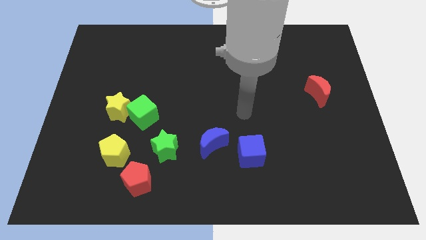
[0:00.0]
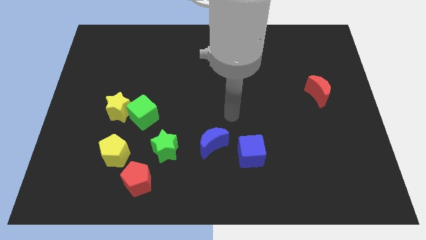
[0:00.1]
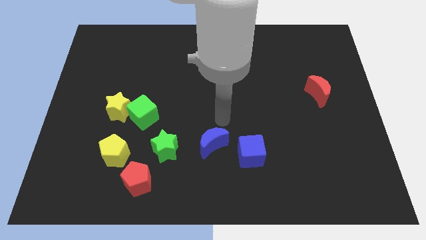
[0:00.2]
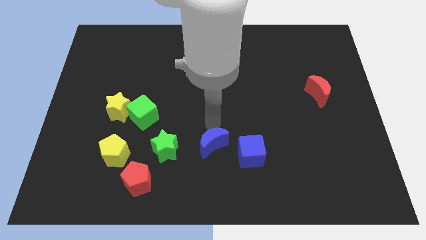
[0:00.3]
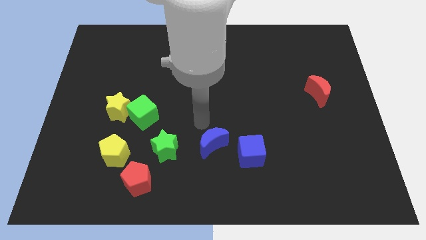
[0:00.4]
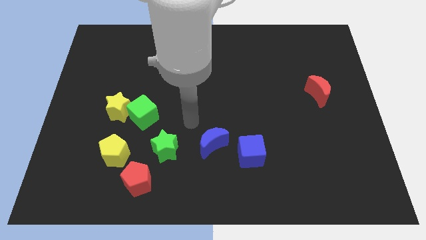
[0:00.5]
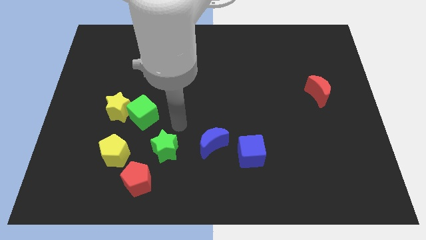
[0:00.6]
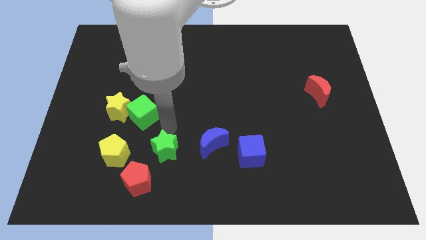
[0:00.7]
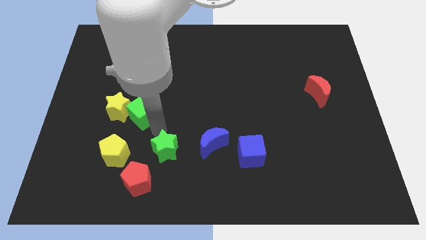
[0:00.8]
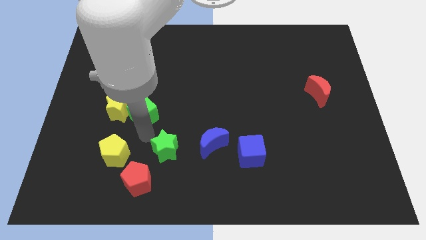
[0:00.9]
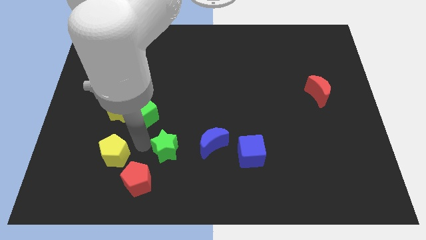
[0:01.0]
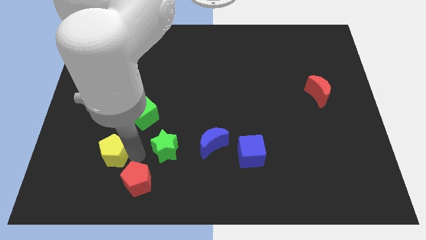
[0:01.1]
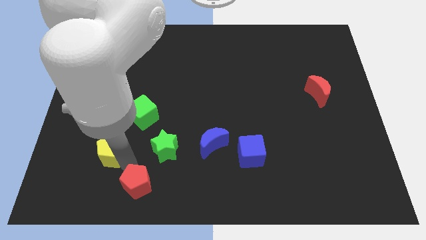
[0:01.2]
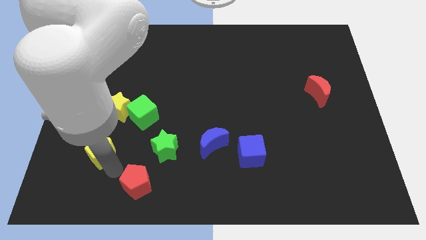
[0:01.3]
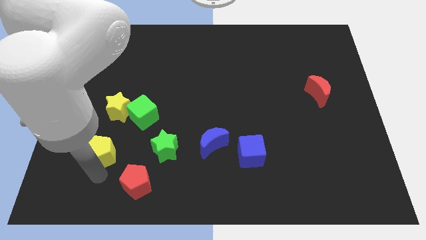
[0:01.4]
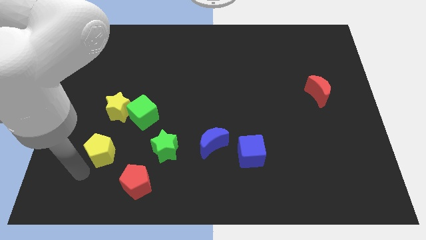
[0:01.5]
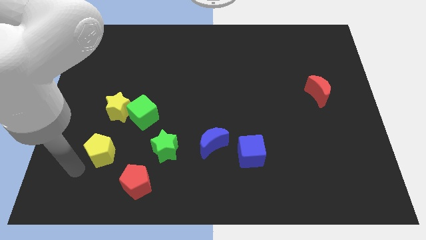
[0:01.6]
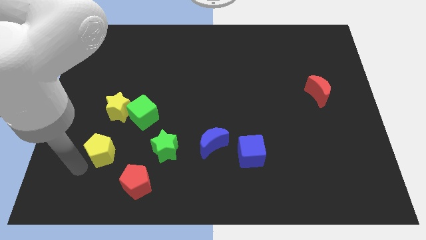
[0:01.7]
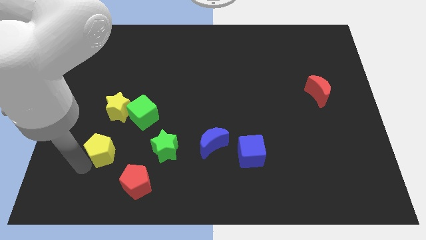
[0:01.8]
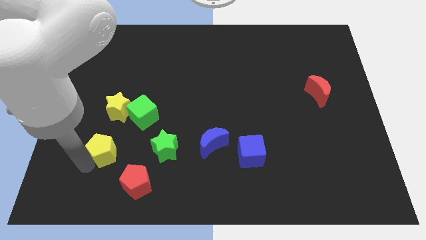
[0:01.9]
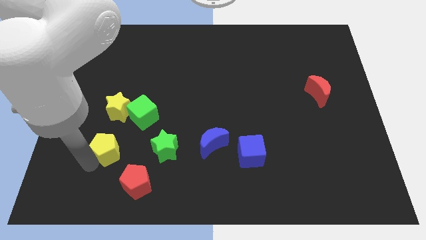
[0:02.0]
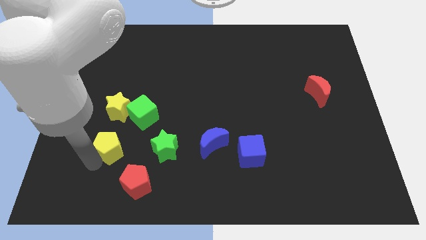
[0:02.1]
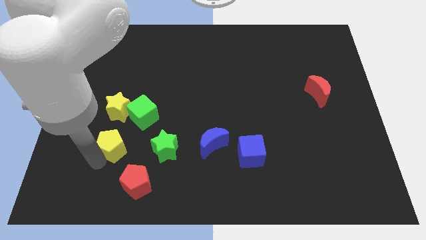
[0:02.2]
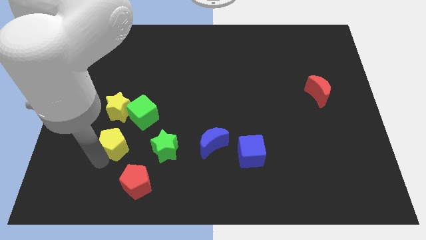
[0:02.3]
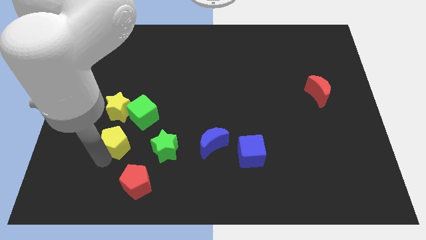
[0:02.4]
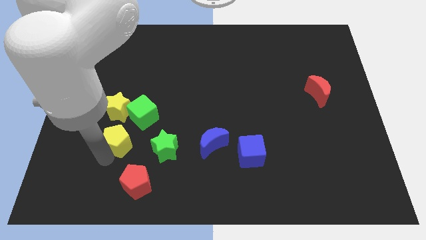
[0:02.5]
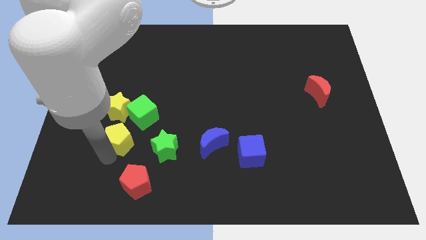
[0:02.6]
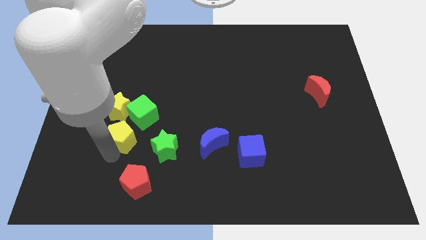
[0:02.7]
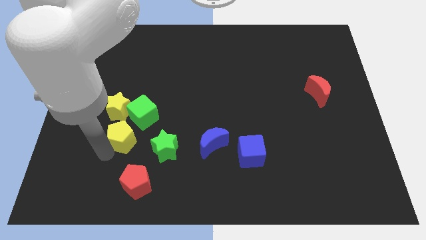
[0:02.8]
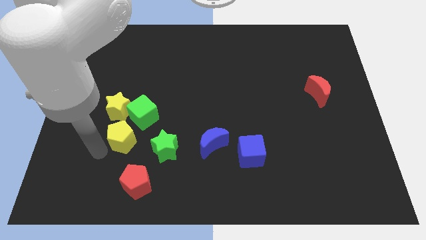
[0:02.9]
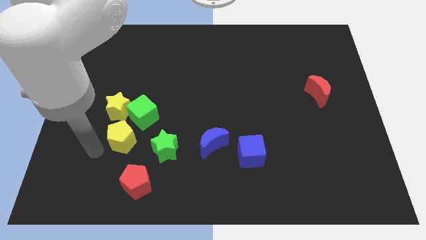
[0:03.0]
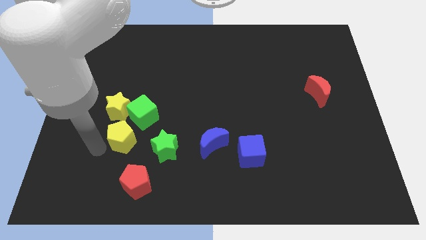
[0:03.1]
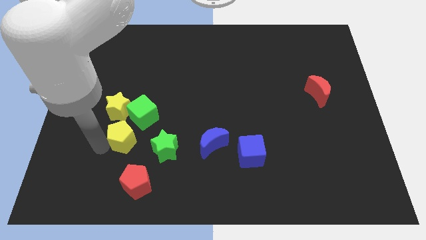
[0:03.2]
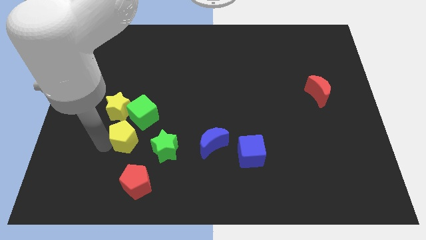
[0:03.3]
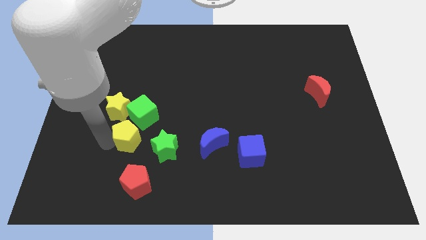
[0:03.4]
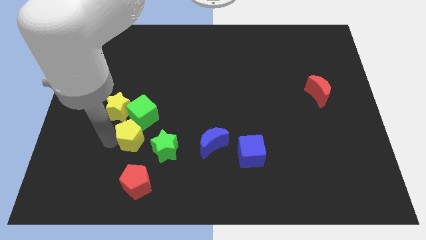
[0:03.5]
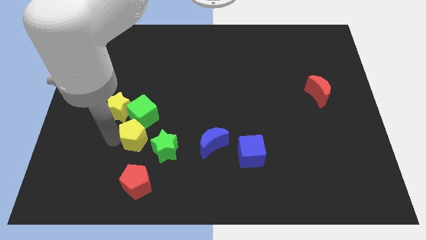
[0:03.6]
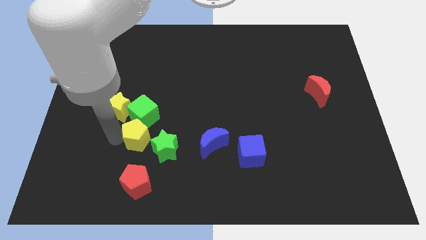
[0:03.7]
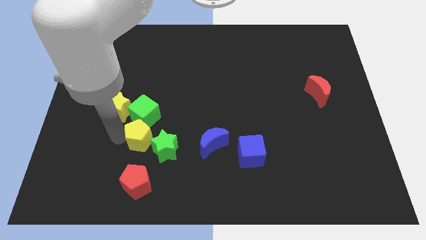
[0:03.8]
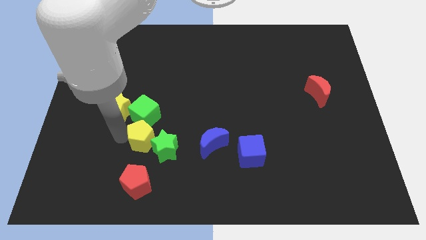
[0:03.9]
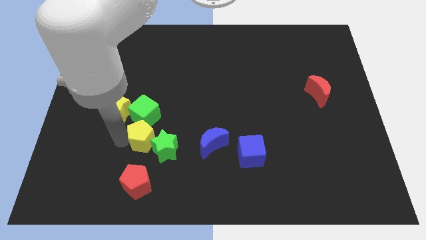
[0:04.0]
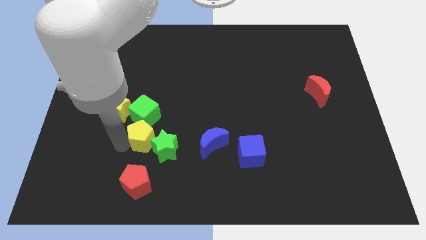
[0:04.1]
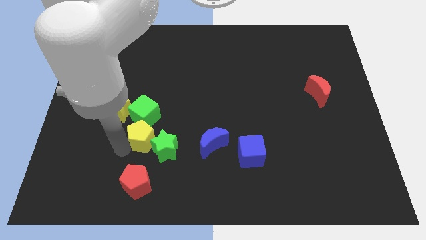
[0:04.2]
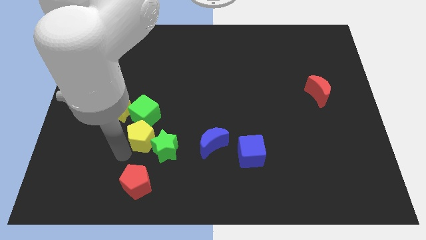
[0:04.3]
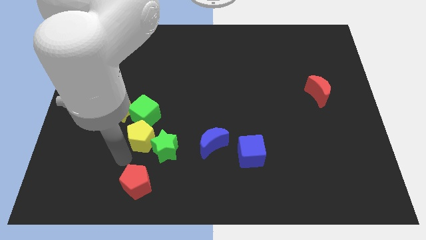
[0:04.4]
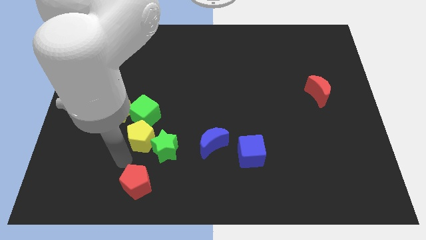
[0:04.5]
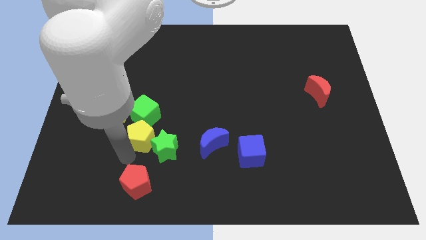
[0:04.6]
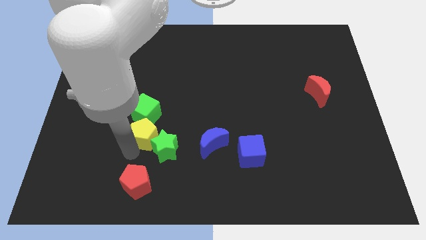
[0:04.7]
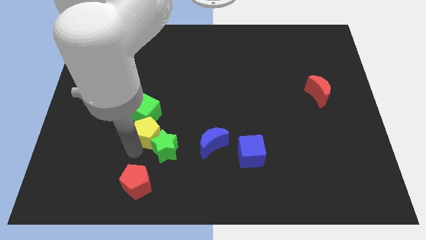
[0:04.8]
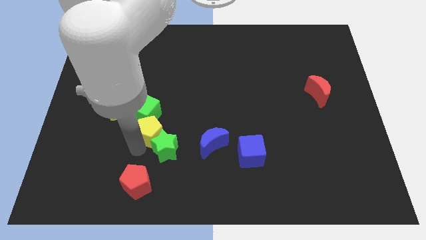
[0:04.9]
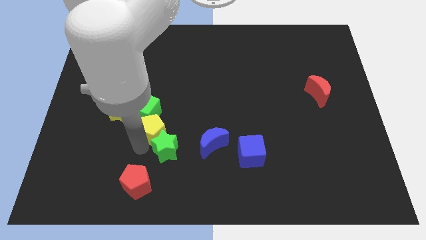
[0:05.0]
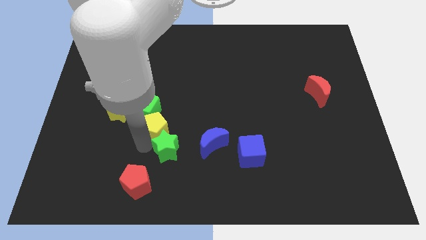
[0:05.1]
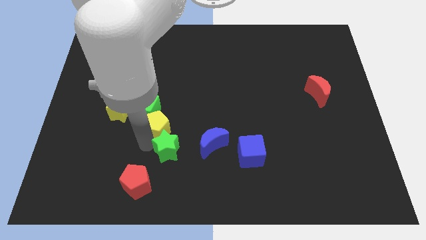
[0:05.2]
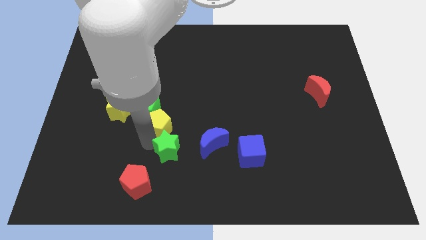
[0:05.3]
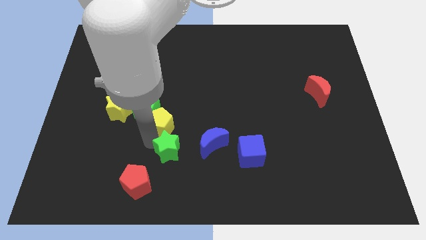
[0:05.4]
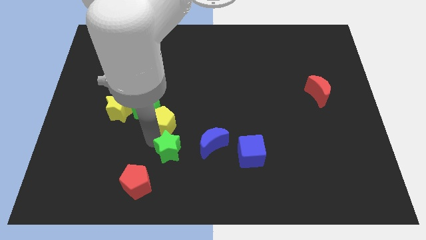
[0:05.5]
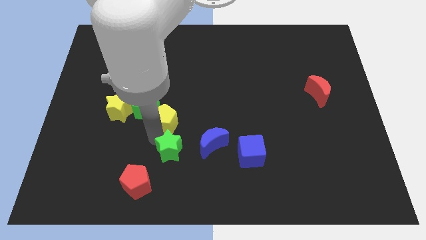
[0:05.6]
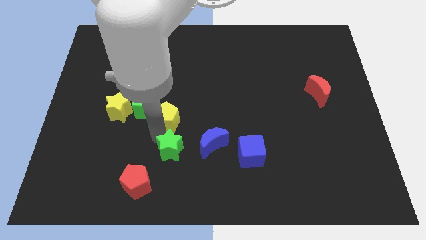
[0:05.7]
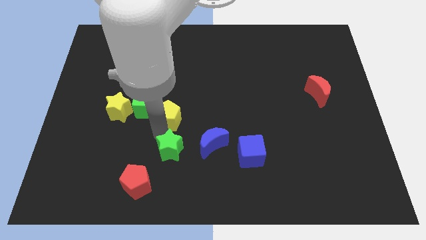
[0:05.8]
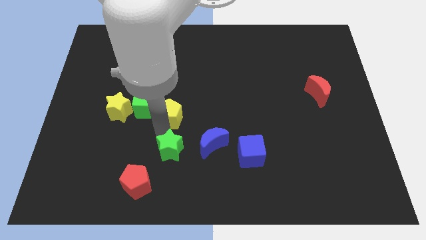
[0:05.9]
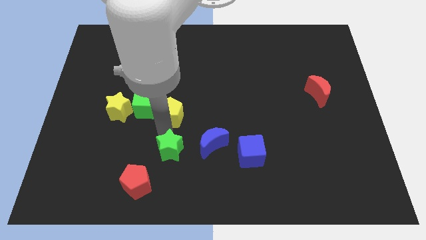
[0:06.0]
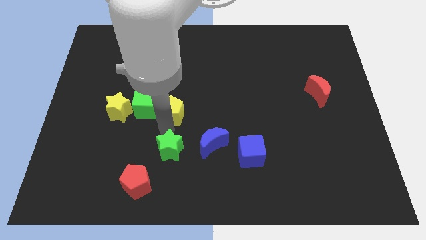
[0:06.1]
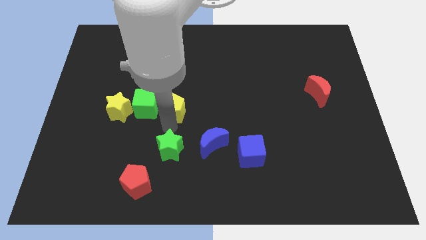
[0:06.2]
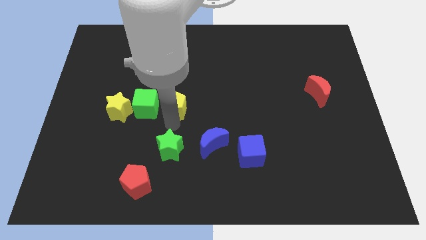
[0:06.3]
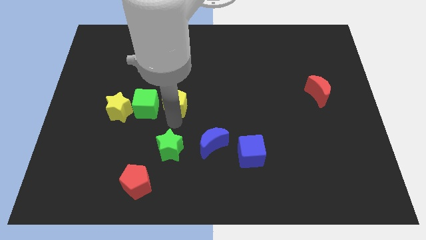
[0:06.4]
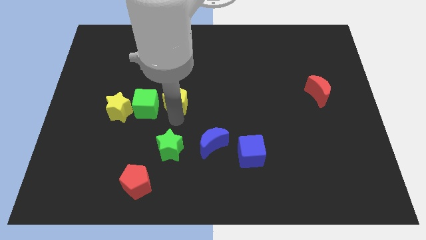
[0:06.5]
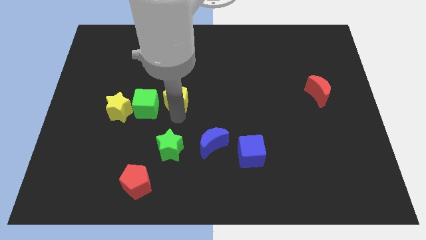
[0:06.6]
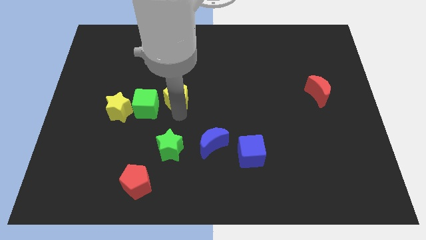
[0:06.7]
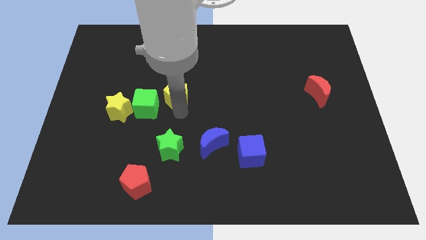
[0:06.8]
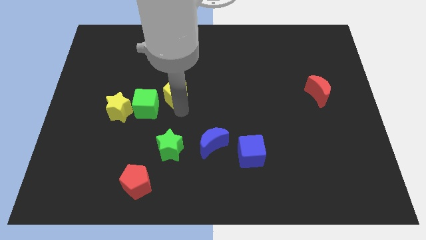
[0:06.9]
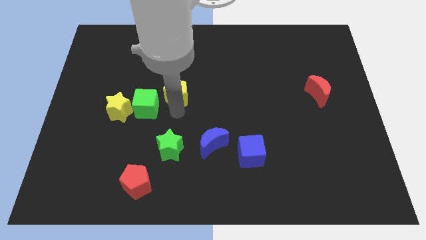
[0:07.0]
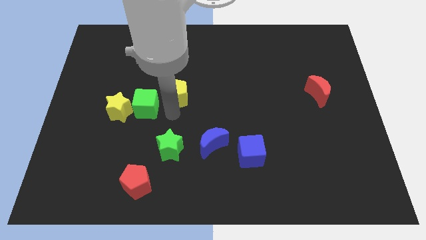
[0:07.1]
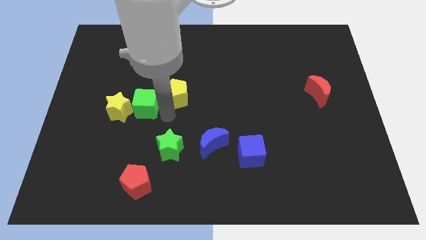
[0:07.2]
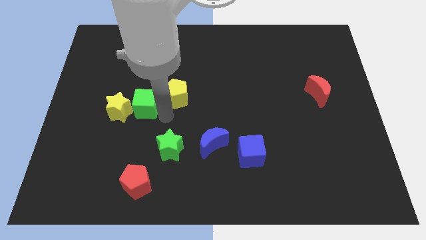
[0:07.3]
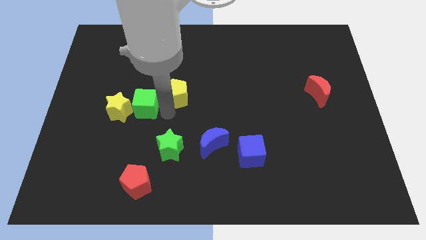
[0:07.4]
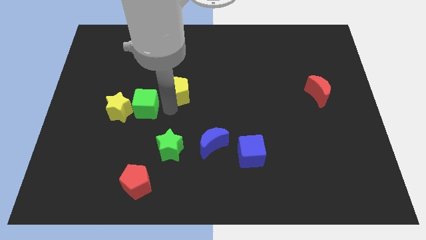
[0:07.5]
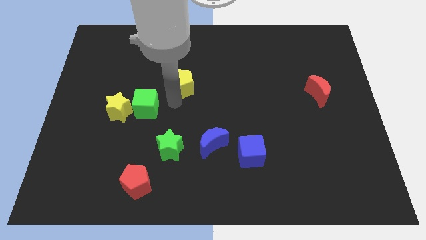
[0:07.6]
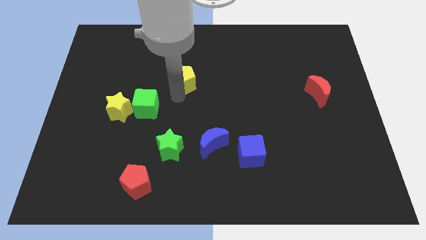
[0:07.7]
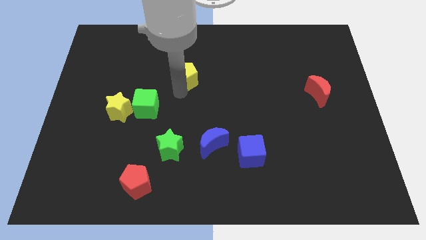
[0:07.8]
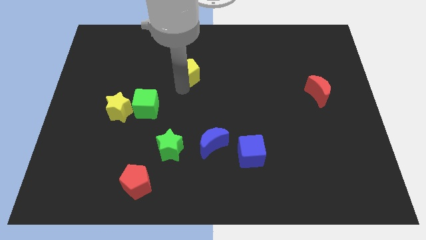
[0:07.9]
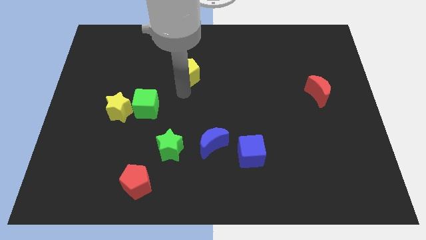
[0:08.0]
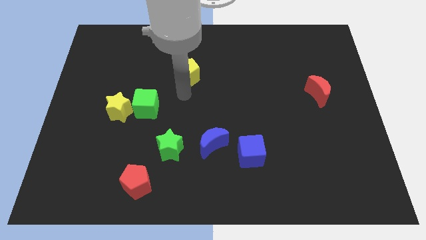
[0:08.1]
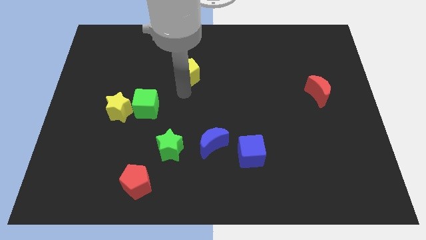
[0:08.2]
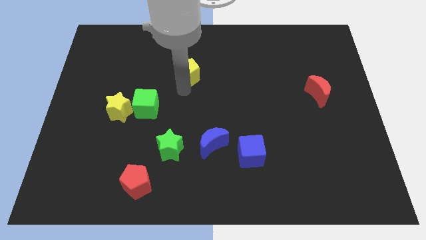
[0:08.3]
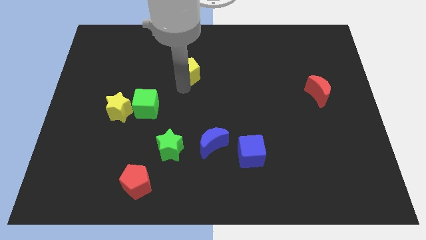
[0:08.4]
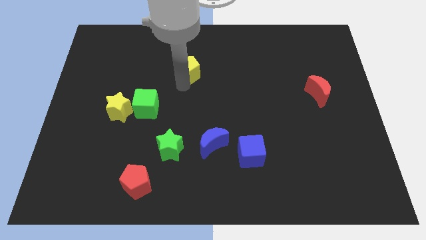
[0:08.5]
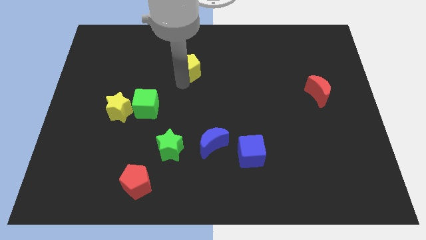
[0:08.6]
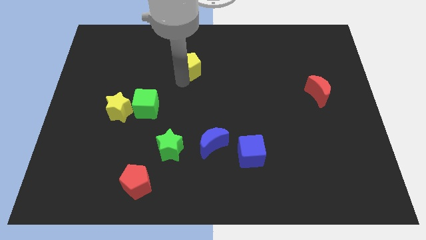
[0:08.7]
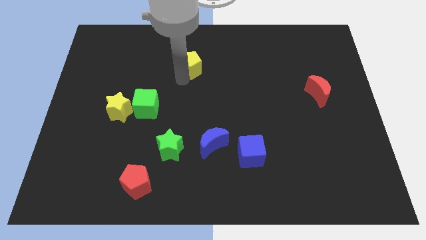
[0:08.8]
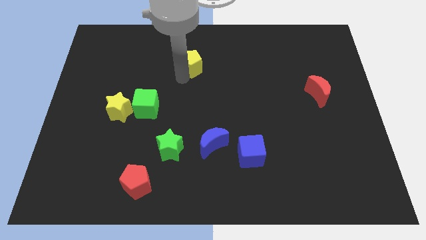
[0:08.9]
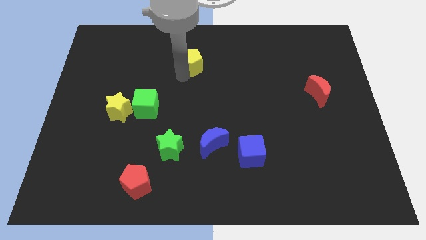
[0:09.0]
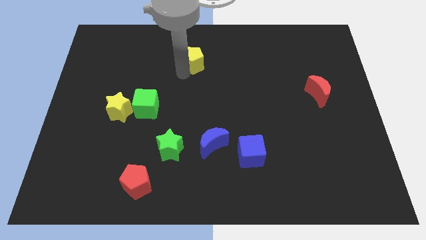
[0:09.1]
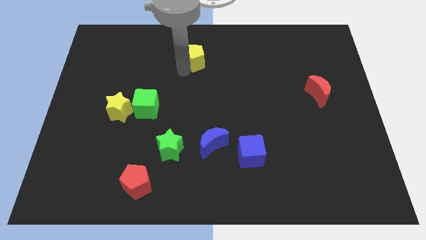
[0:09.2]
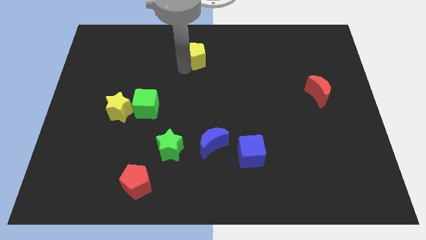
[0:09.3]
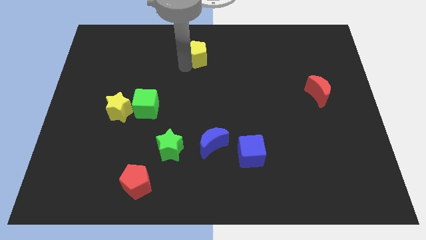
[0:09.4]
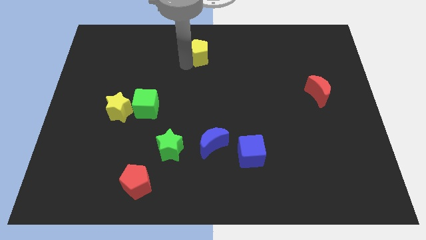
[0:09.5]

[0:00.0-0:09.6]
move the yellow pentagon to the top
